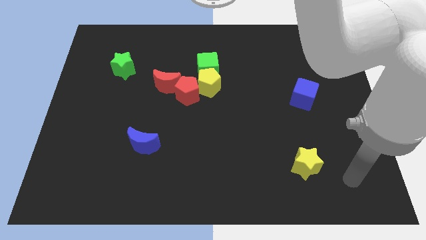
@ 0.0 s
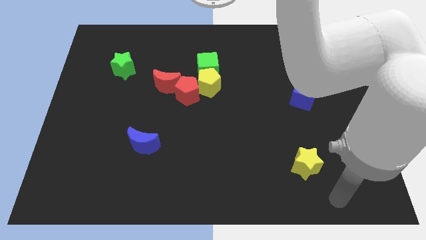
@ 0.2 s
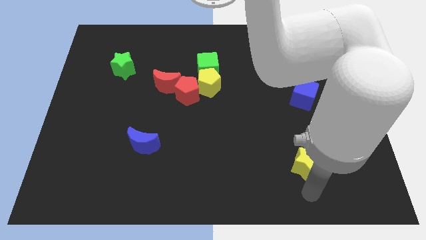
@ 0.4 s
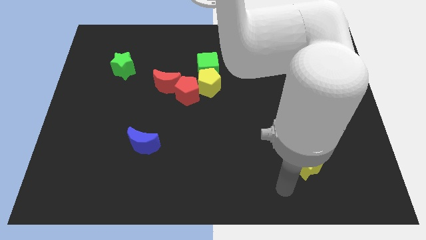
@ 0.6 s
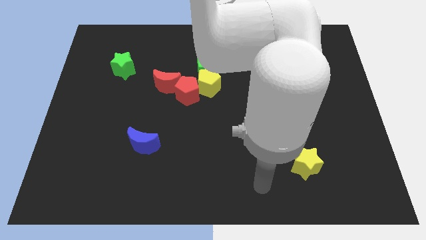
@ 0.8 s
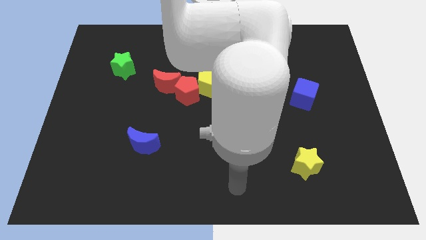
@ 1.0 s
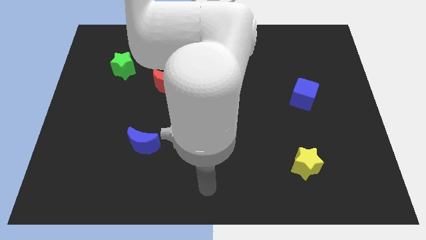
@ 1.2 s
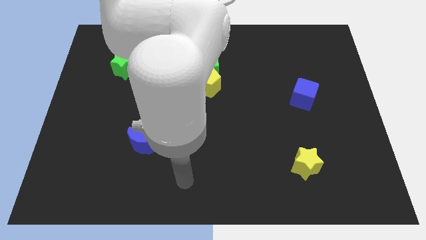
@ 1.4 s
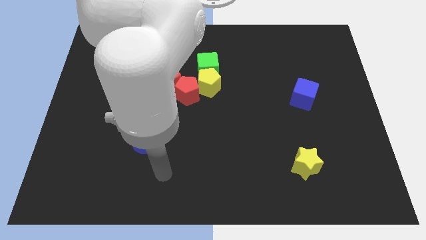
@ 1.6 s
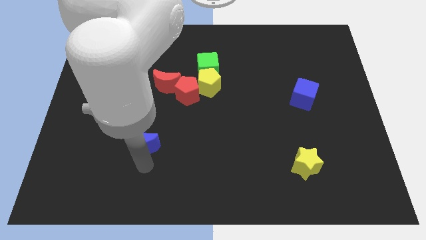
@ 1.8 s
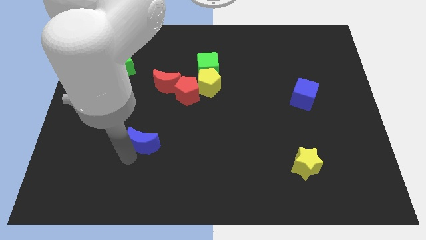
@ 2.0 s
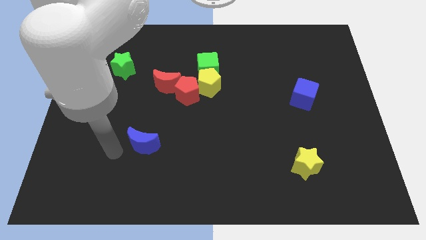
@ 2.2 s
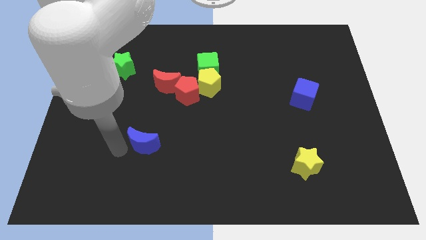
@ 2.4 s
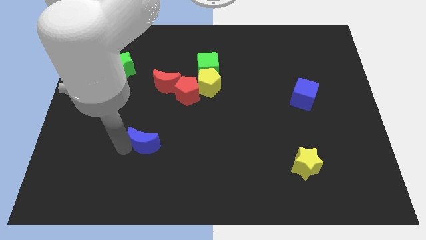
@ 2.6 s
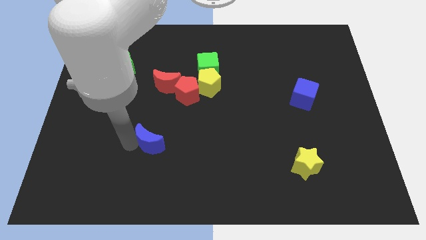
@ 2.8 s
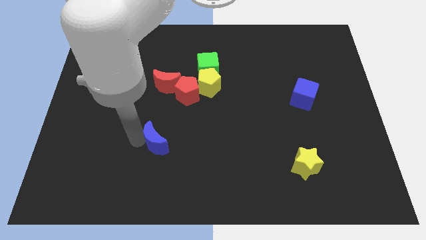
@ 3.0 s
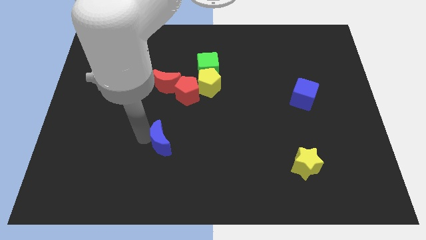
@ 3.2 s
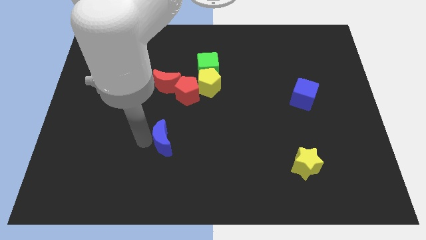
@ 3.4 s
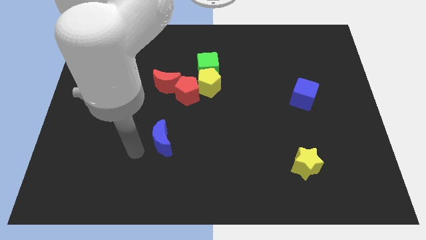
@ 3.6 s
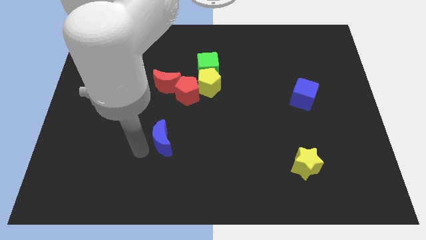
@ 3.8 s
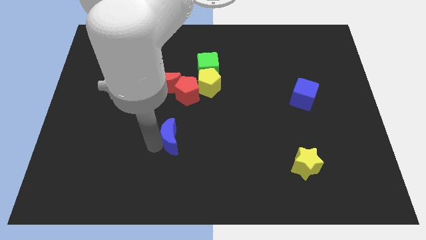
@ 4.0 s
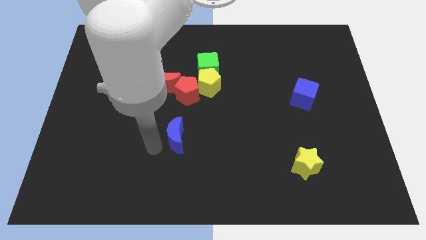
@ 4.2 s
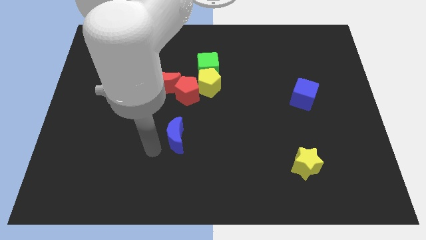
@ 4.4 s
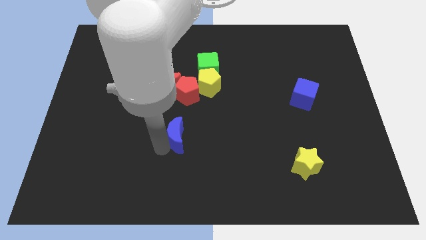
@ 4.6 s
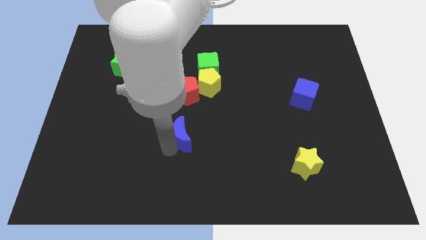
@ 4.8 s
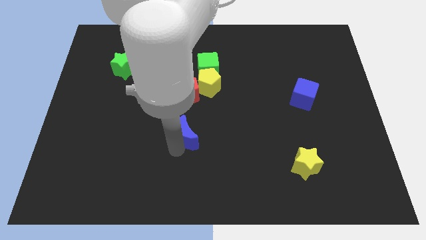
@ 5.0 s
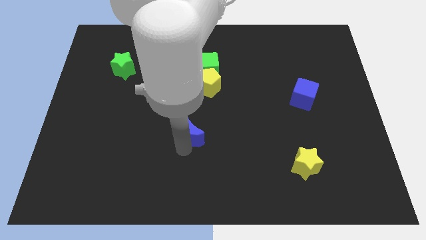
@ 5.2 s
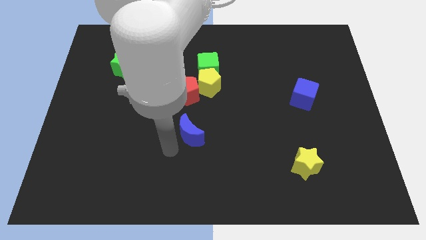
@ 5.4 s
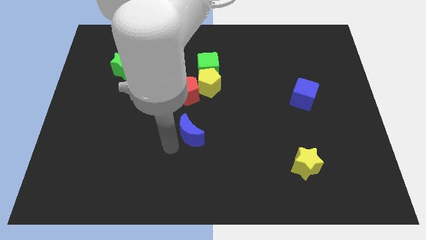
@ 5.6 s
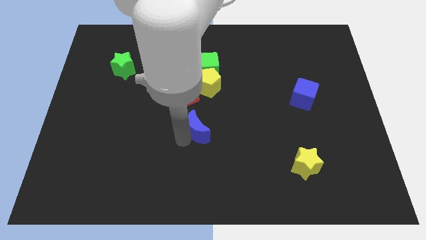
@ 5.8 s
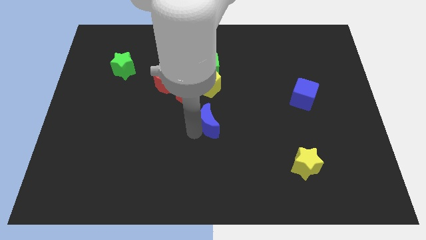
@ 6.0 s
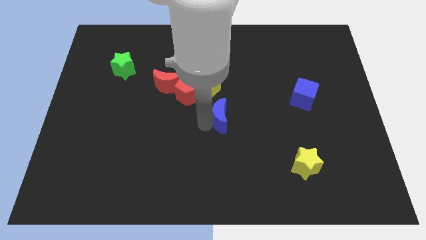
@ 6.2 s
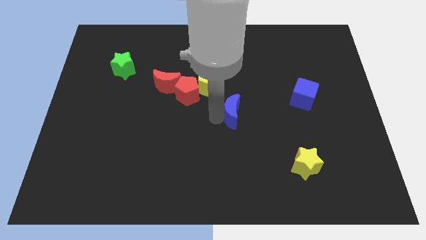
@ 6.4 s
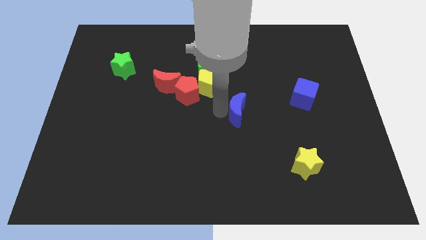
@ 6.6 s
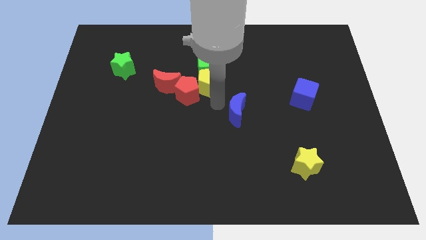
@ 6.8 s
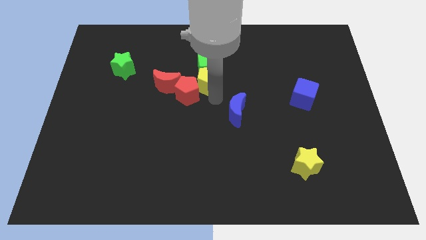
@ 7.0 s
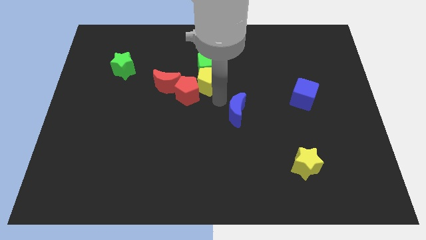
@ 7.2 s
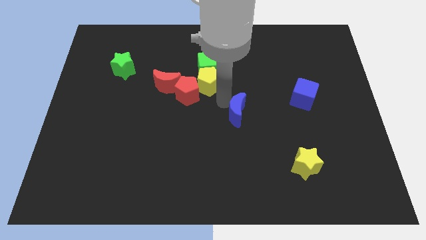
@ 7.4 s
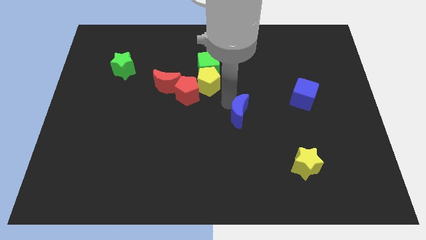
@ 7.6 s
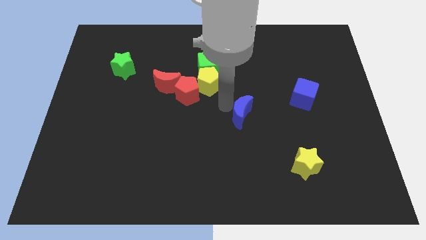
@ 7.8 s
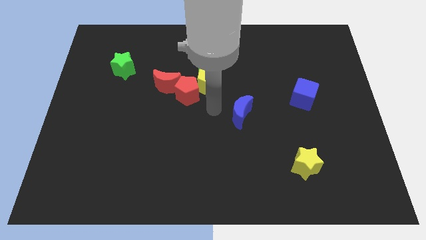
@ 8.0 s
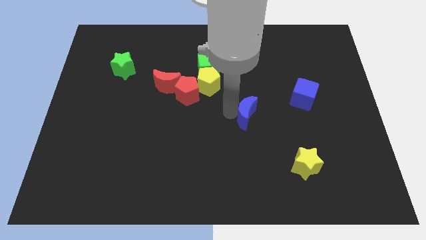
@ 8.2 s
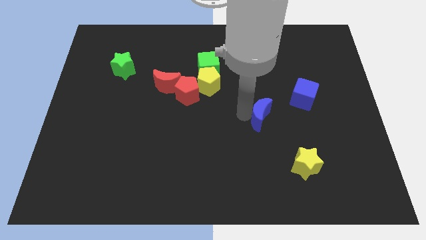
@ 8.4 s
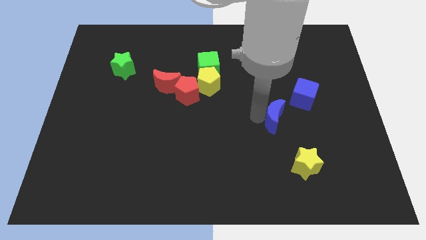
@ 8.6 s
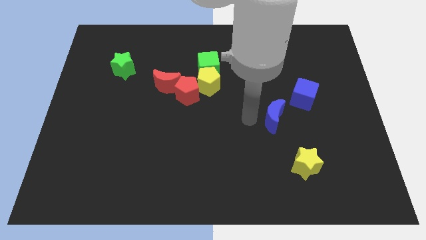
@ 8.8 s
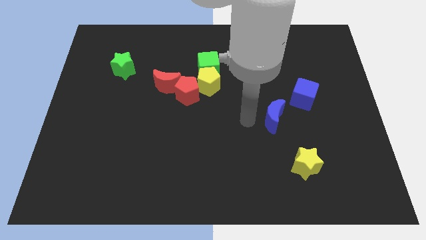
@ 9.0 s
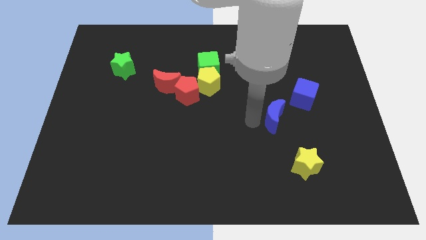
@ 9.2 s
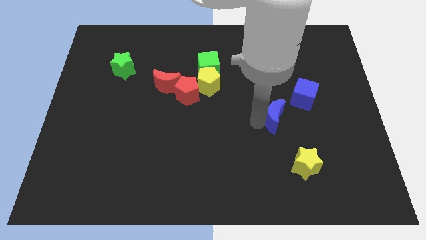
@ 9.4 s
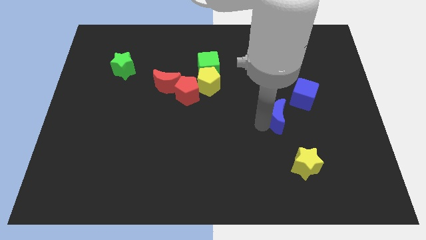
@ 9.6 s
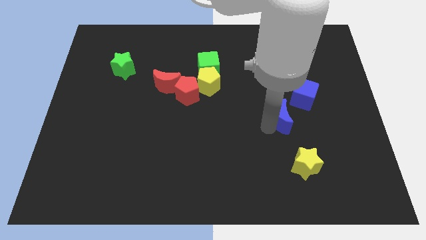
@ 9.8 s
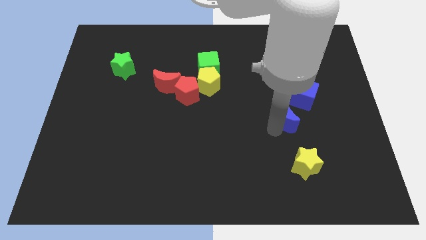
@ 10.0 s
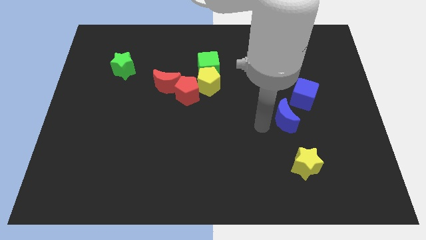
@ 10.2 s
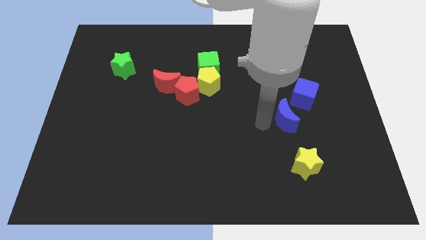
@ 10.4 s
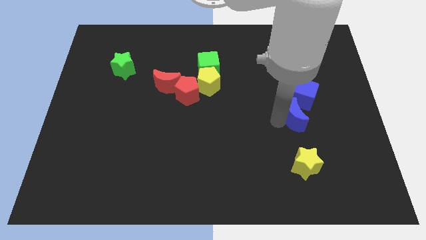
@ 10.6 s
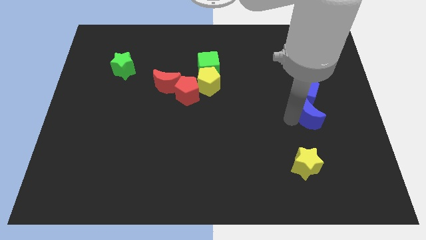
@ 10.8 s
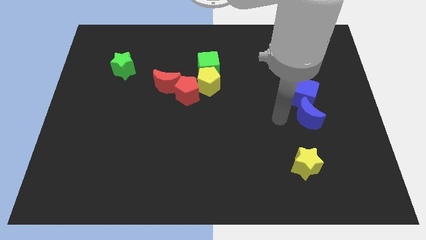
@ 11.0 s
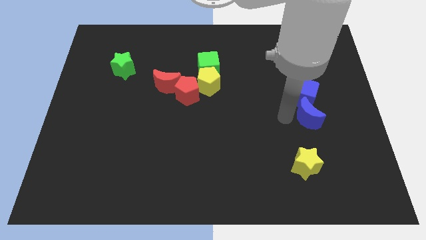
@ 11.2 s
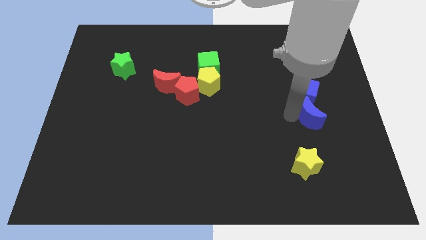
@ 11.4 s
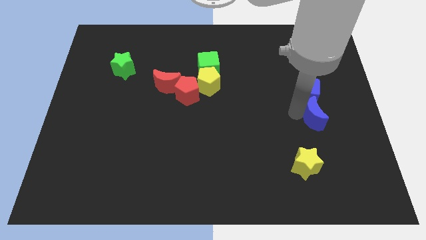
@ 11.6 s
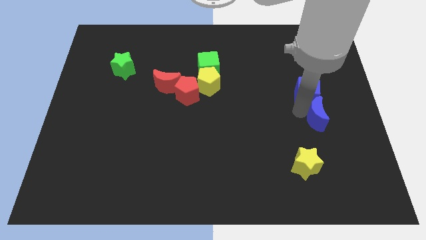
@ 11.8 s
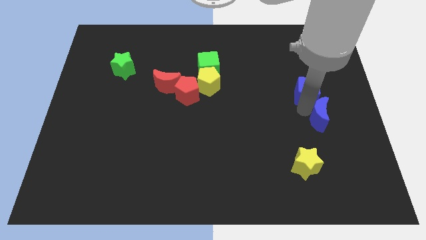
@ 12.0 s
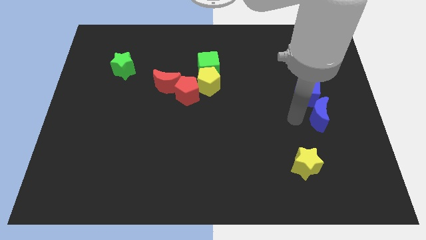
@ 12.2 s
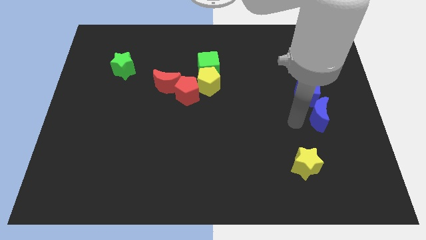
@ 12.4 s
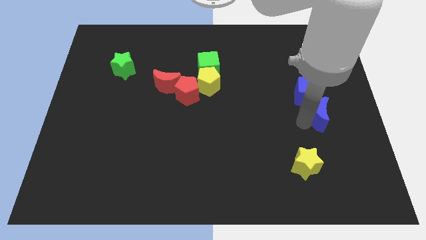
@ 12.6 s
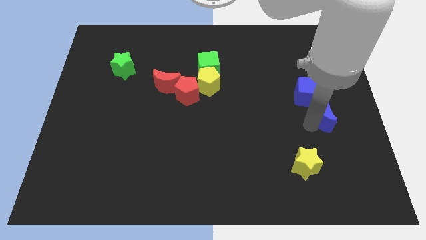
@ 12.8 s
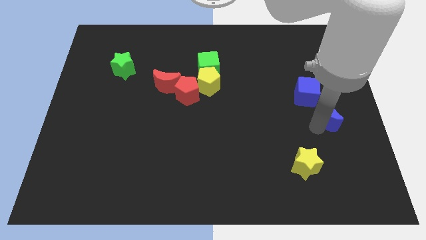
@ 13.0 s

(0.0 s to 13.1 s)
move the blue moon to the right side of the board
